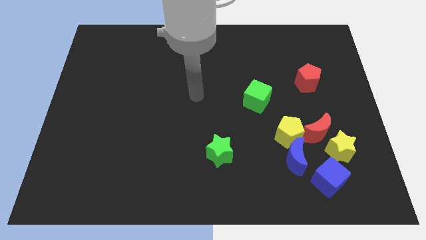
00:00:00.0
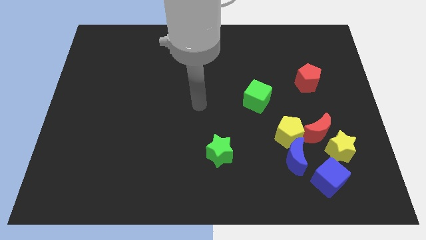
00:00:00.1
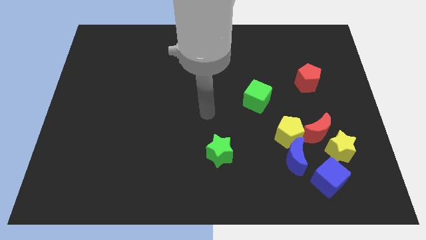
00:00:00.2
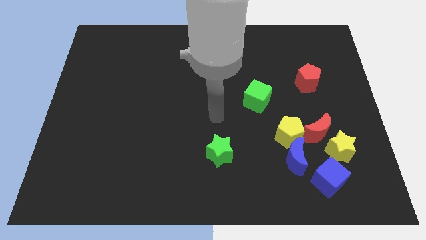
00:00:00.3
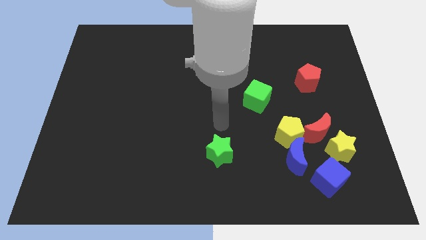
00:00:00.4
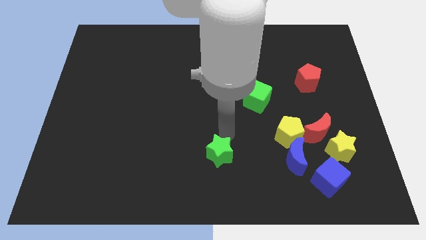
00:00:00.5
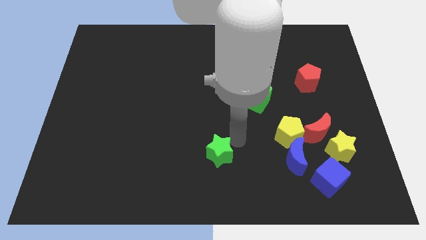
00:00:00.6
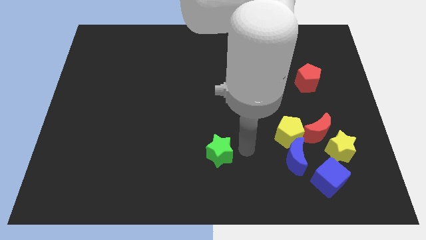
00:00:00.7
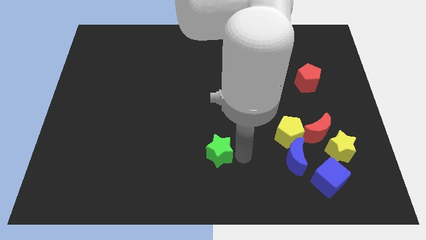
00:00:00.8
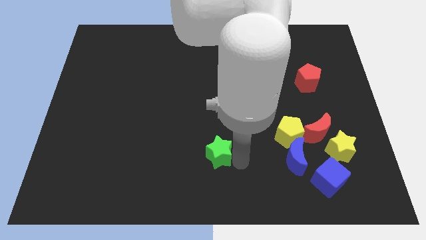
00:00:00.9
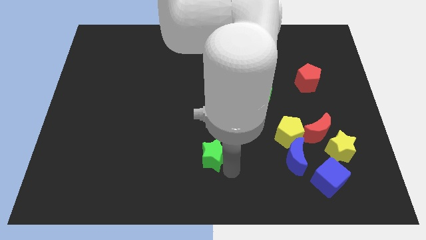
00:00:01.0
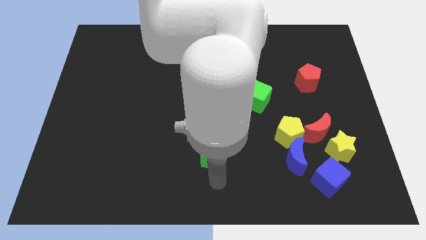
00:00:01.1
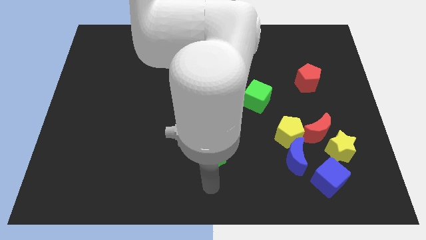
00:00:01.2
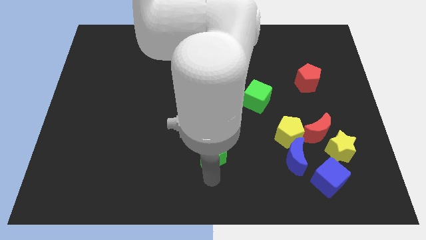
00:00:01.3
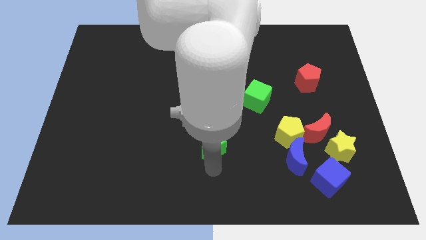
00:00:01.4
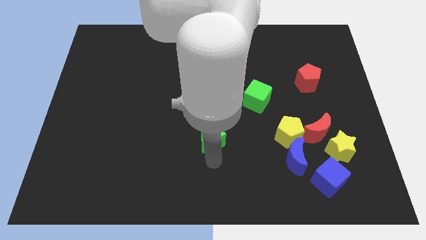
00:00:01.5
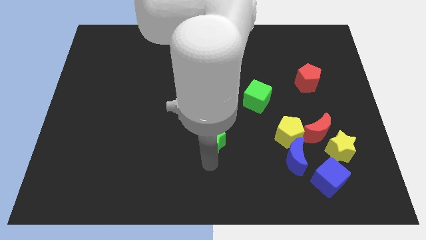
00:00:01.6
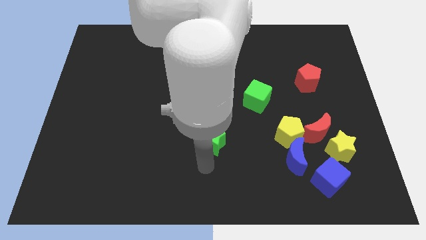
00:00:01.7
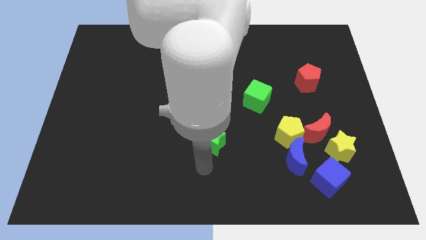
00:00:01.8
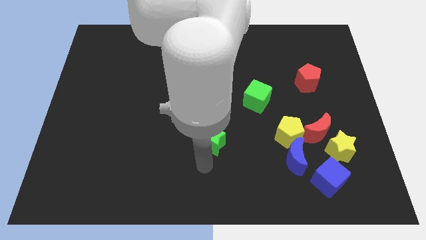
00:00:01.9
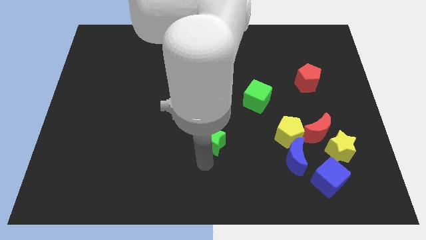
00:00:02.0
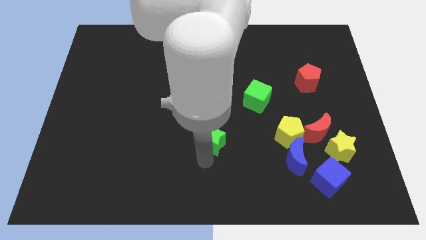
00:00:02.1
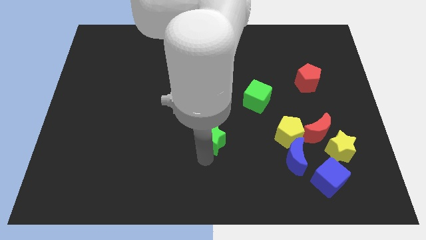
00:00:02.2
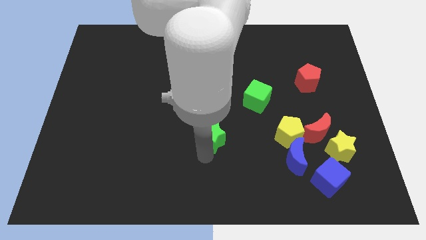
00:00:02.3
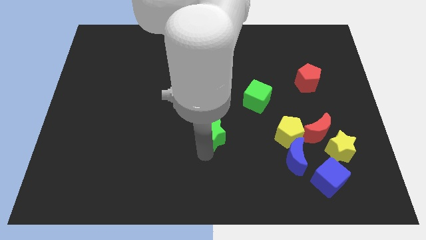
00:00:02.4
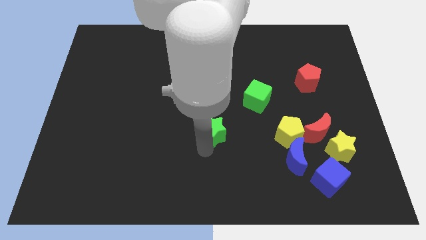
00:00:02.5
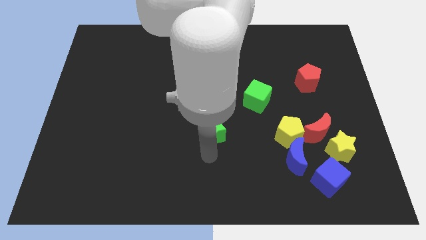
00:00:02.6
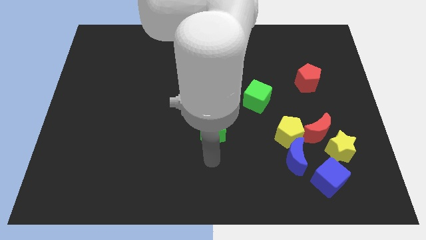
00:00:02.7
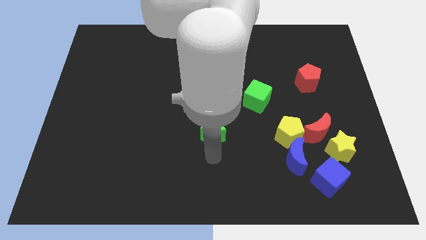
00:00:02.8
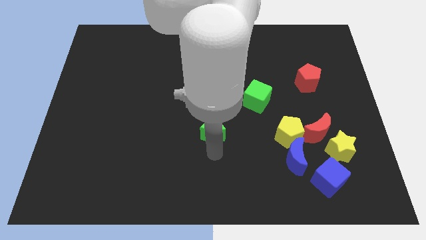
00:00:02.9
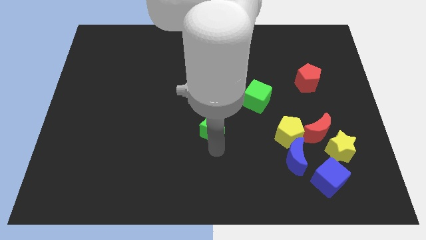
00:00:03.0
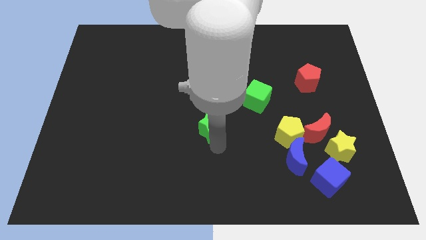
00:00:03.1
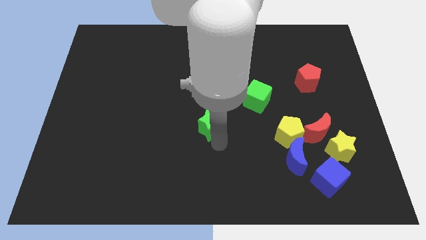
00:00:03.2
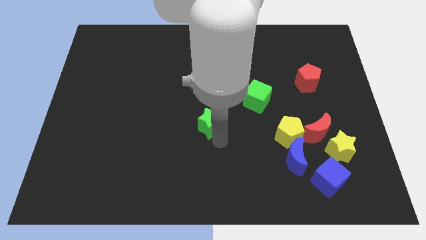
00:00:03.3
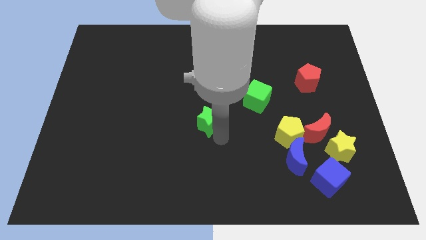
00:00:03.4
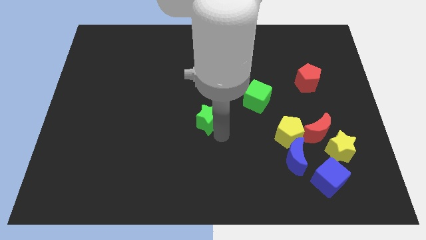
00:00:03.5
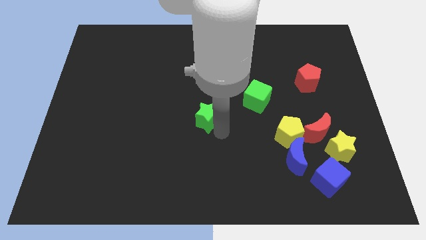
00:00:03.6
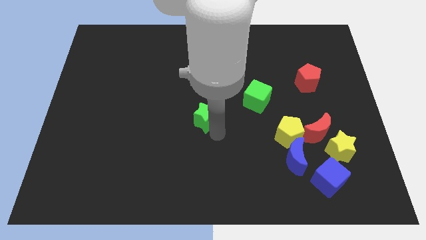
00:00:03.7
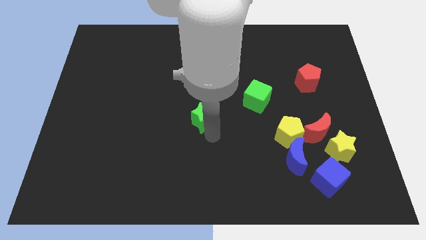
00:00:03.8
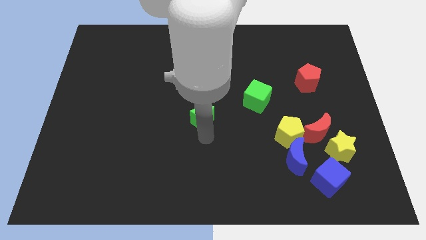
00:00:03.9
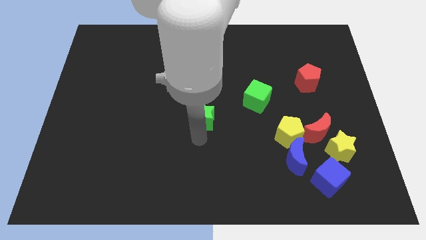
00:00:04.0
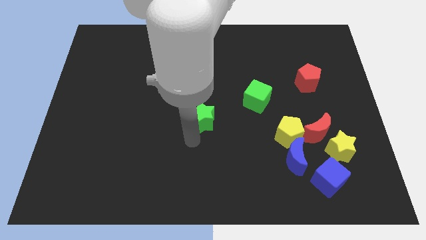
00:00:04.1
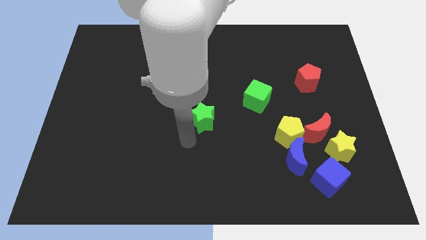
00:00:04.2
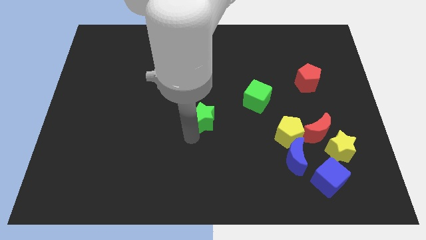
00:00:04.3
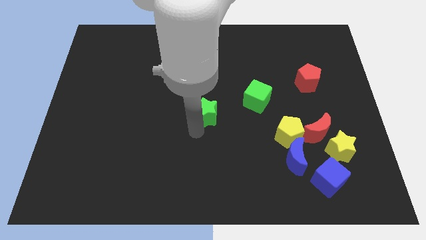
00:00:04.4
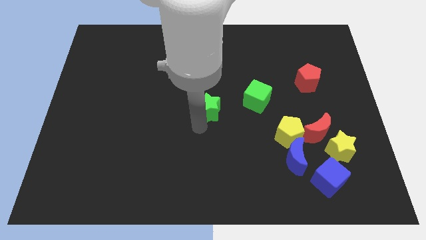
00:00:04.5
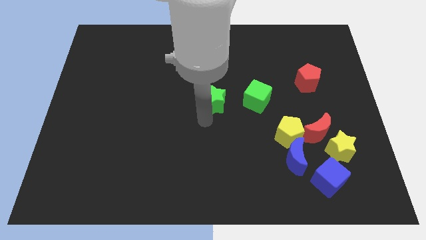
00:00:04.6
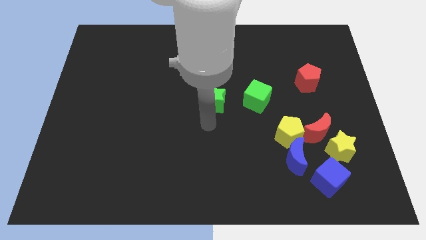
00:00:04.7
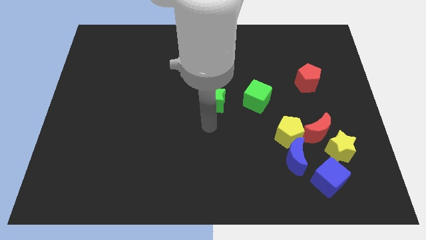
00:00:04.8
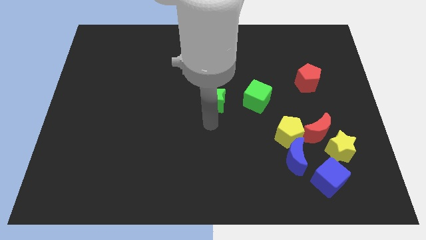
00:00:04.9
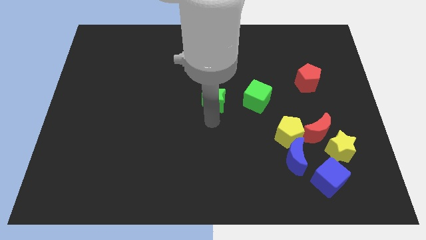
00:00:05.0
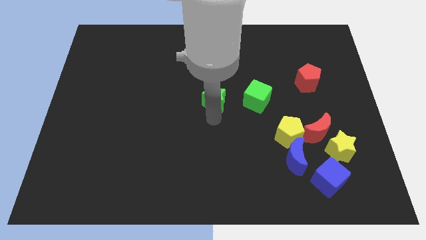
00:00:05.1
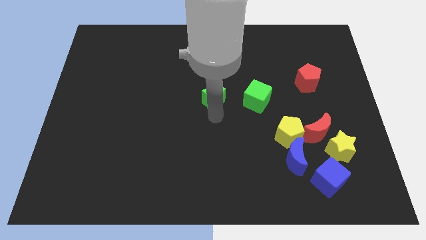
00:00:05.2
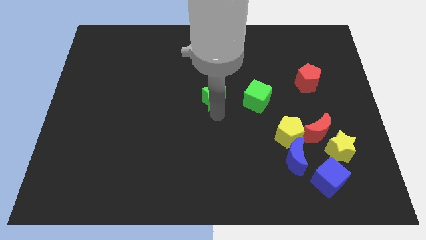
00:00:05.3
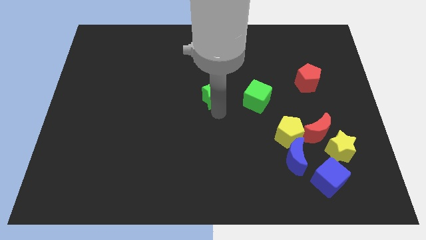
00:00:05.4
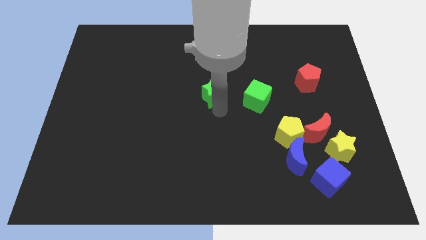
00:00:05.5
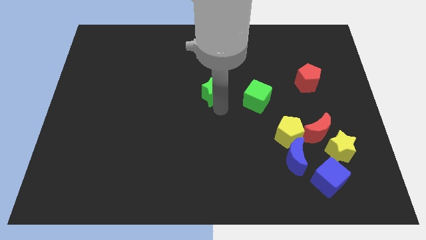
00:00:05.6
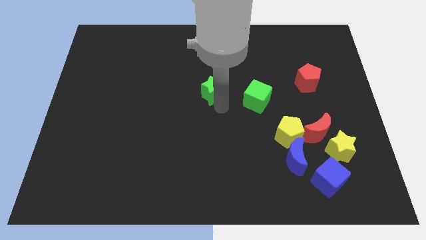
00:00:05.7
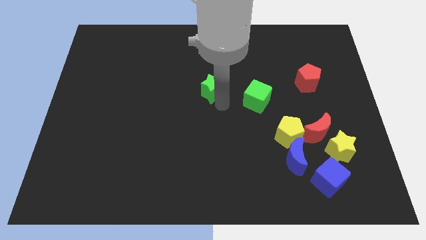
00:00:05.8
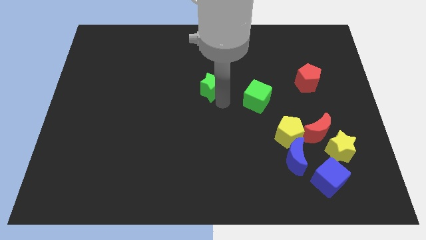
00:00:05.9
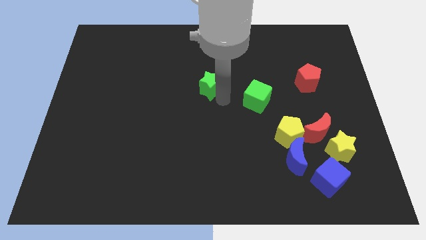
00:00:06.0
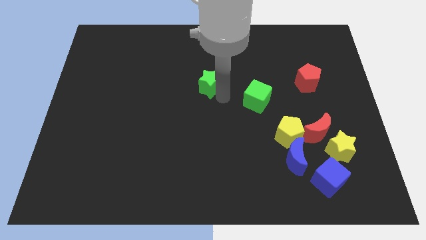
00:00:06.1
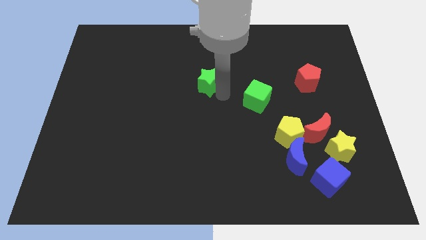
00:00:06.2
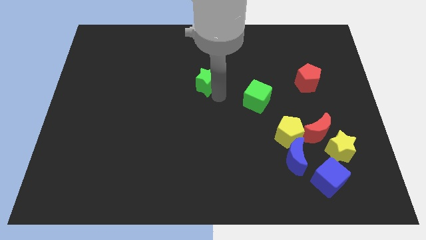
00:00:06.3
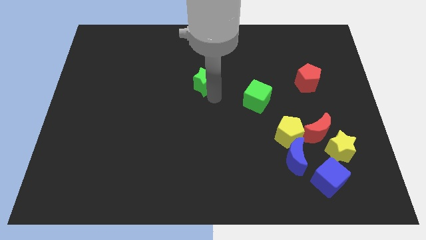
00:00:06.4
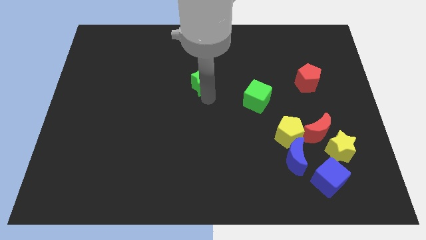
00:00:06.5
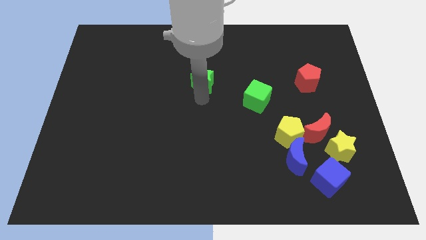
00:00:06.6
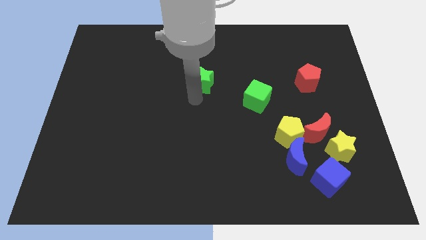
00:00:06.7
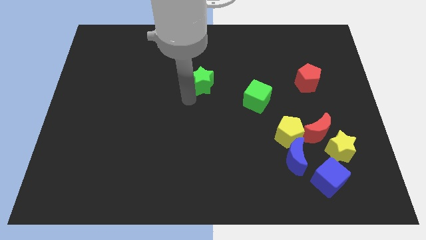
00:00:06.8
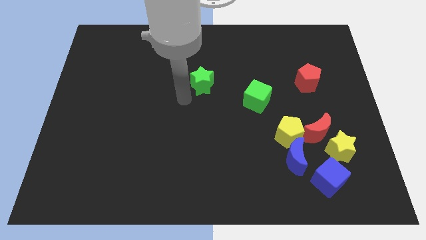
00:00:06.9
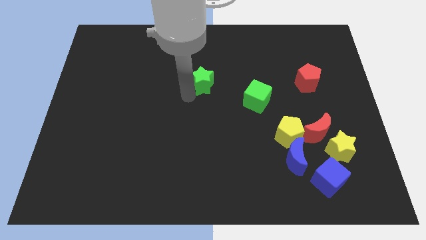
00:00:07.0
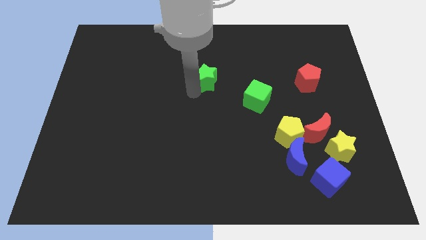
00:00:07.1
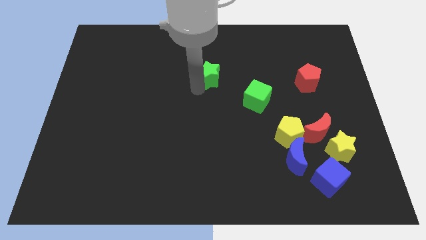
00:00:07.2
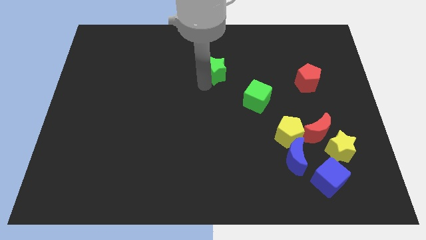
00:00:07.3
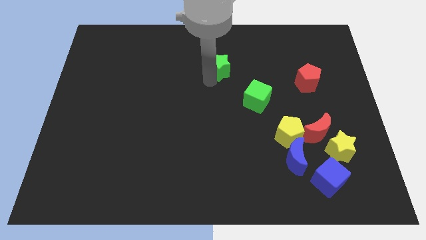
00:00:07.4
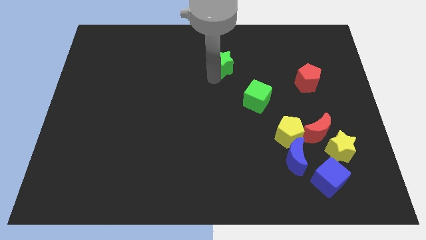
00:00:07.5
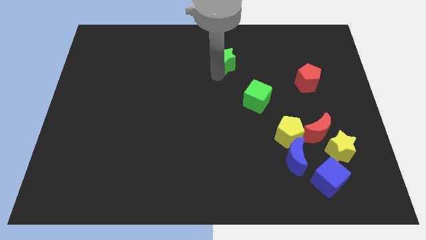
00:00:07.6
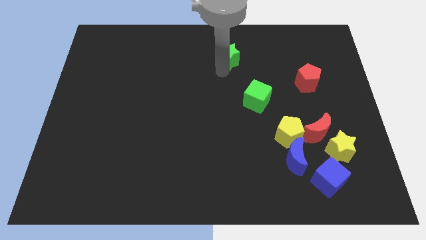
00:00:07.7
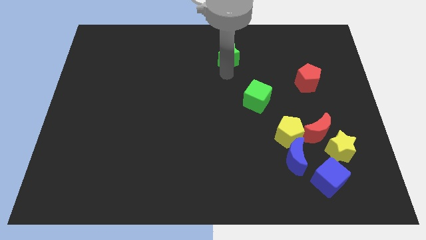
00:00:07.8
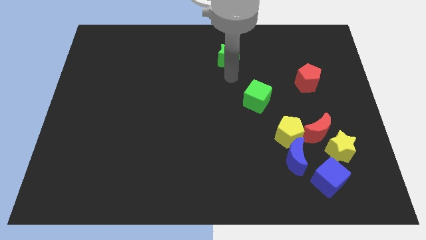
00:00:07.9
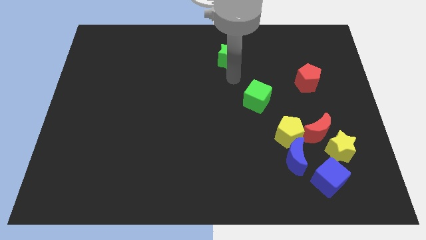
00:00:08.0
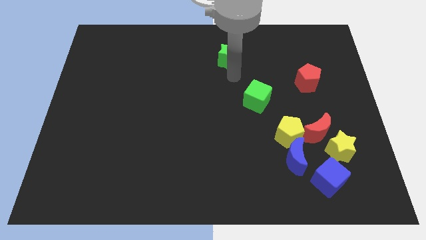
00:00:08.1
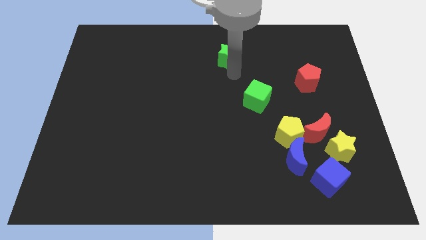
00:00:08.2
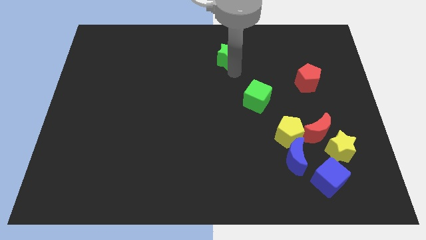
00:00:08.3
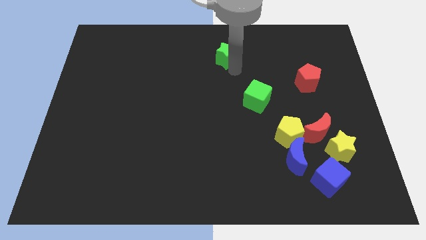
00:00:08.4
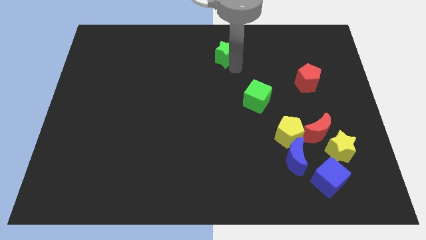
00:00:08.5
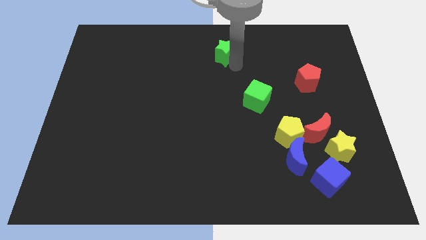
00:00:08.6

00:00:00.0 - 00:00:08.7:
move the green star to the towards your base
